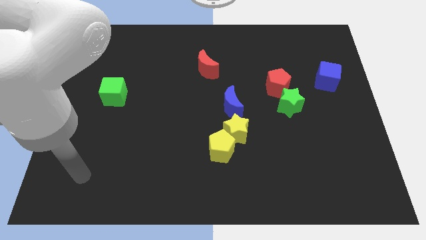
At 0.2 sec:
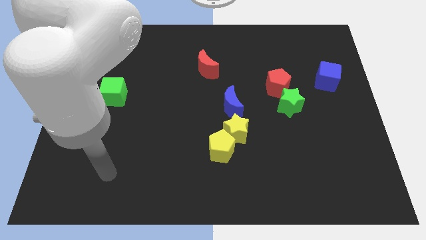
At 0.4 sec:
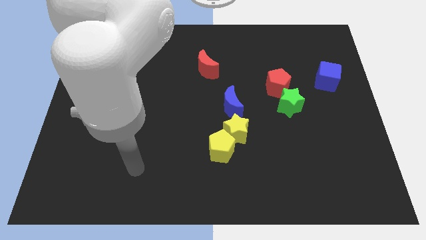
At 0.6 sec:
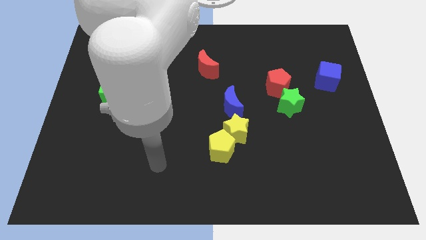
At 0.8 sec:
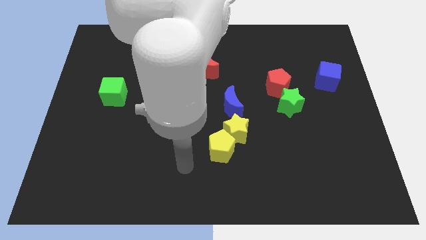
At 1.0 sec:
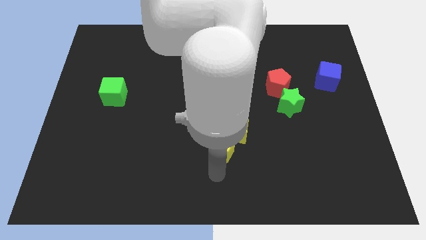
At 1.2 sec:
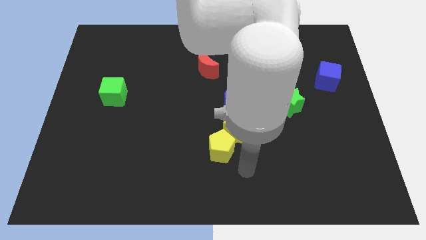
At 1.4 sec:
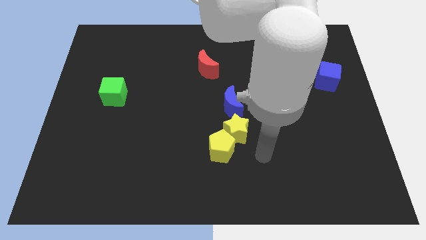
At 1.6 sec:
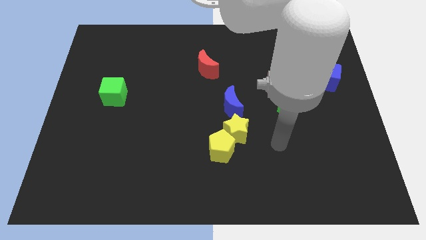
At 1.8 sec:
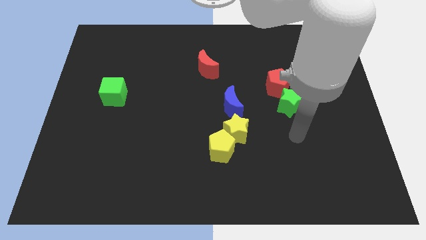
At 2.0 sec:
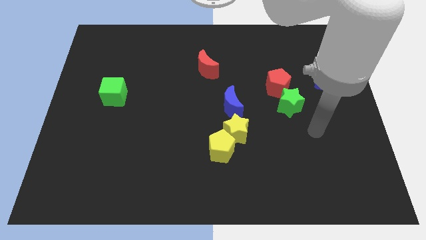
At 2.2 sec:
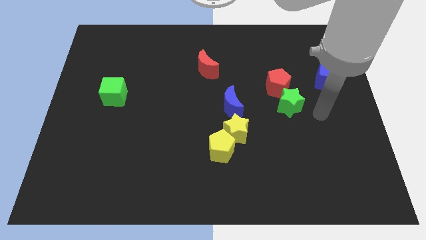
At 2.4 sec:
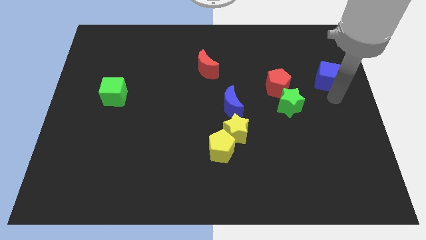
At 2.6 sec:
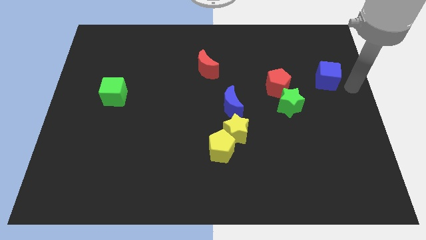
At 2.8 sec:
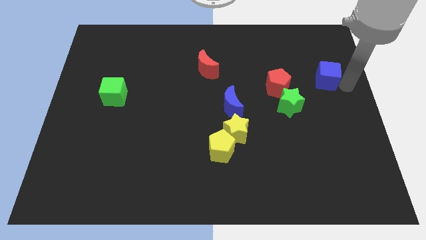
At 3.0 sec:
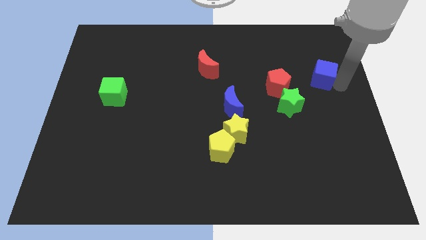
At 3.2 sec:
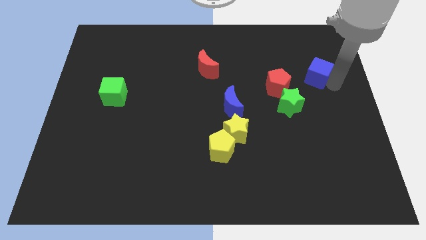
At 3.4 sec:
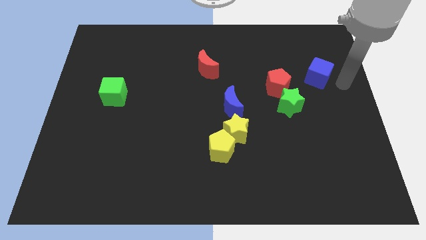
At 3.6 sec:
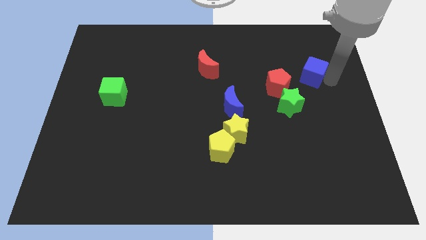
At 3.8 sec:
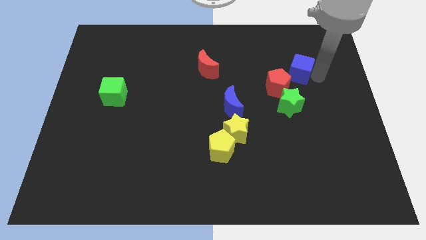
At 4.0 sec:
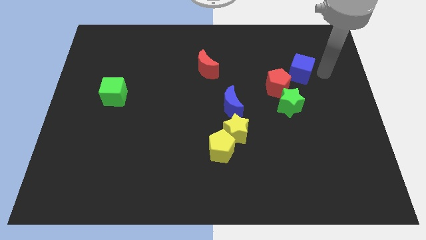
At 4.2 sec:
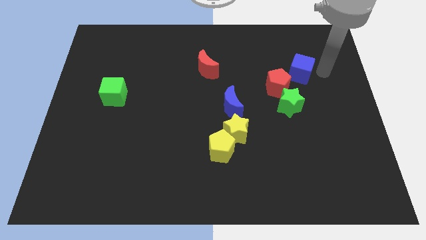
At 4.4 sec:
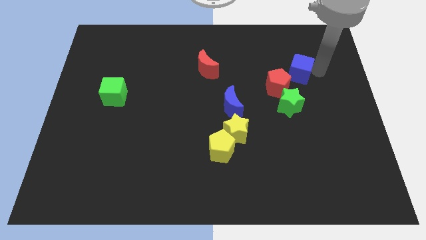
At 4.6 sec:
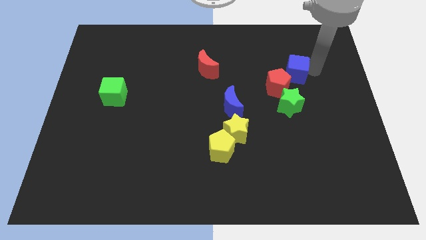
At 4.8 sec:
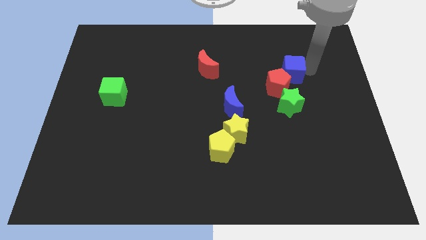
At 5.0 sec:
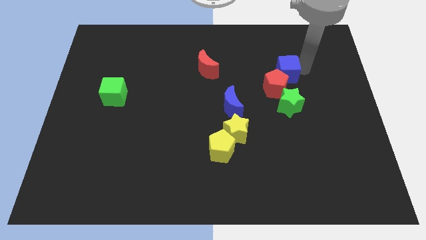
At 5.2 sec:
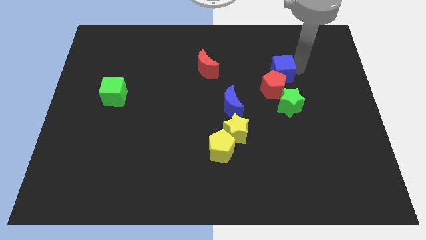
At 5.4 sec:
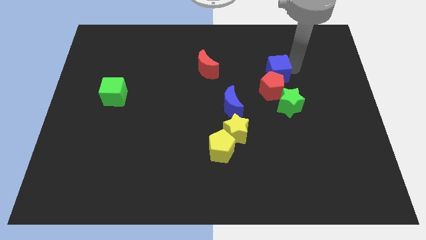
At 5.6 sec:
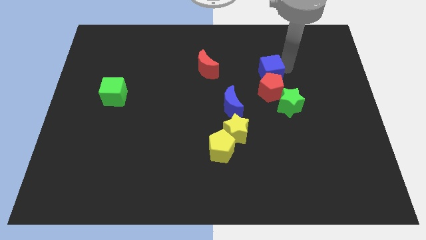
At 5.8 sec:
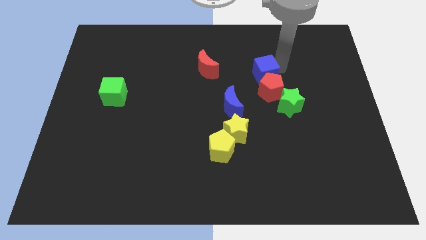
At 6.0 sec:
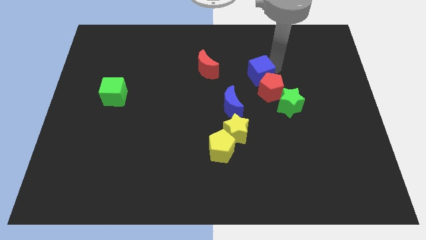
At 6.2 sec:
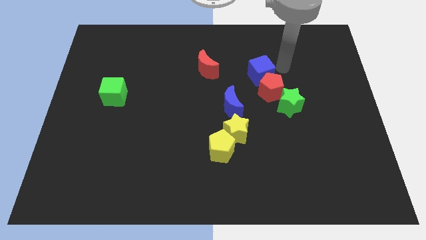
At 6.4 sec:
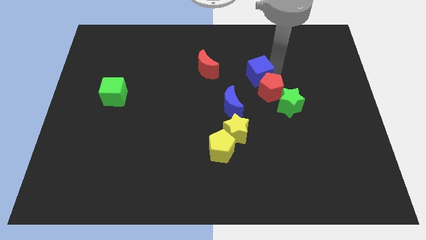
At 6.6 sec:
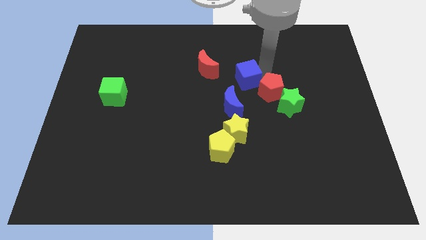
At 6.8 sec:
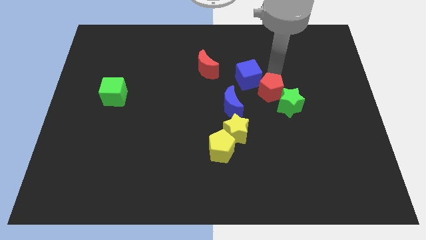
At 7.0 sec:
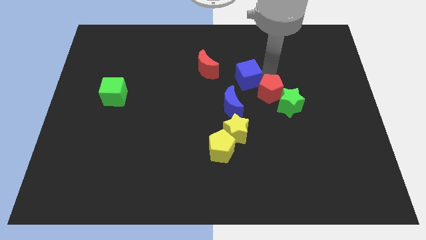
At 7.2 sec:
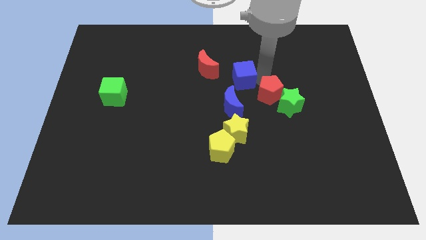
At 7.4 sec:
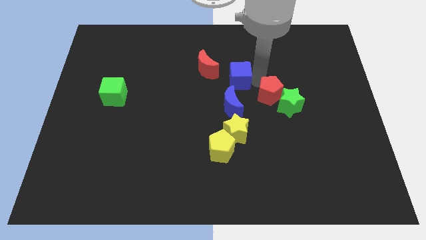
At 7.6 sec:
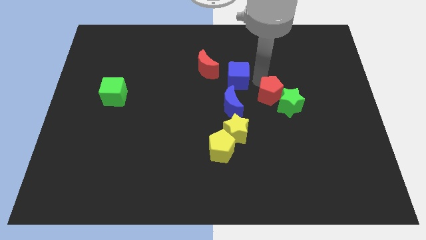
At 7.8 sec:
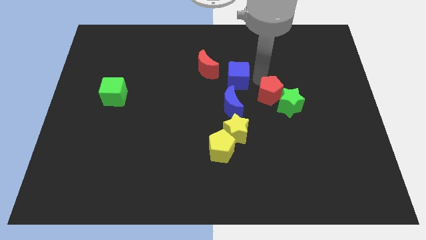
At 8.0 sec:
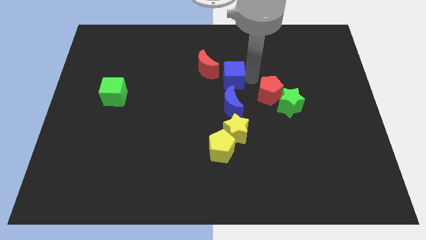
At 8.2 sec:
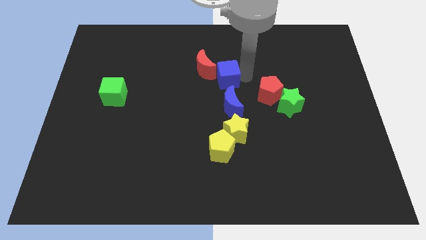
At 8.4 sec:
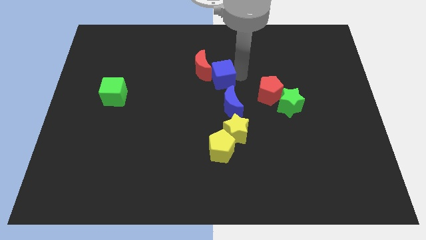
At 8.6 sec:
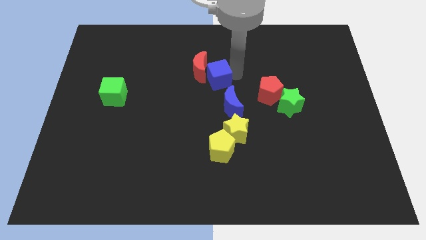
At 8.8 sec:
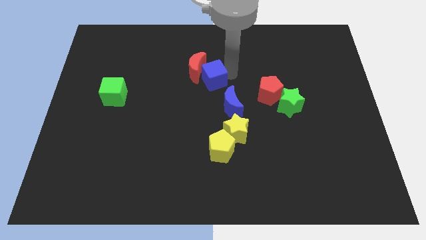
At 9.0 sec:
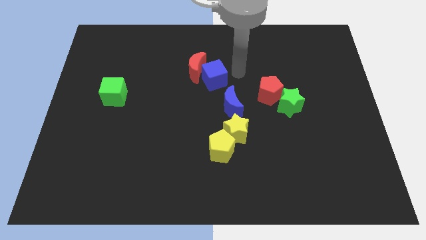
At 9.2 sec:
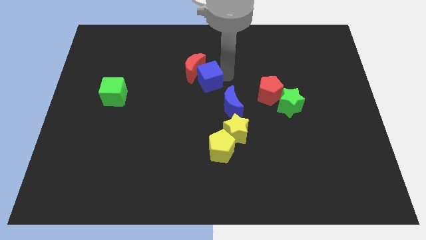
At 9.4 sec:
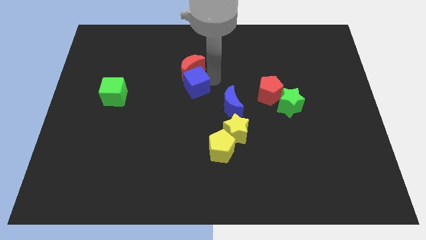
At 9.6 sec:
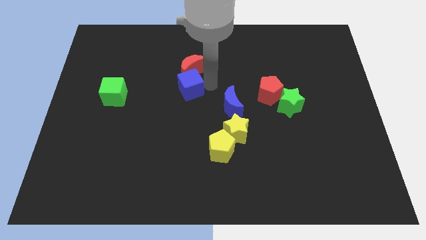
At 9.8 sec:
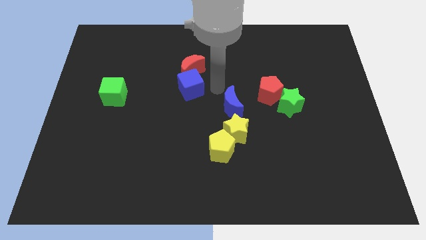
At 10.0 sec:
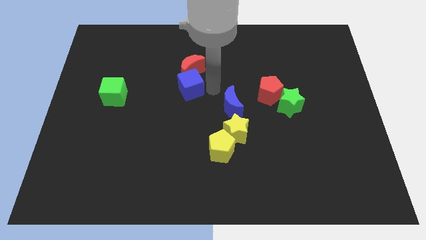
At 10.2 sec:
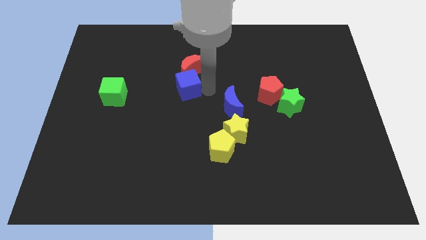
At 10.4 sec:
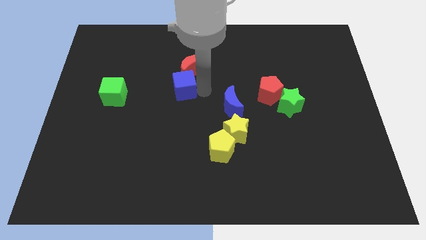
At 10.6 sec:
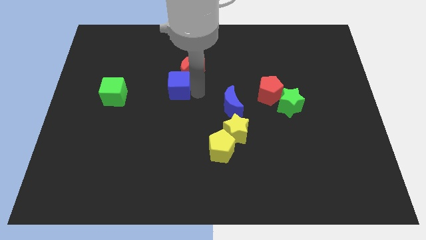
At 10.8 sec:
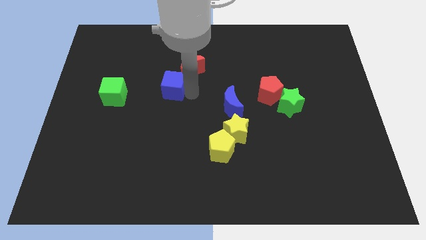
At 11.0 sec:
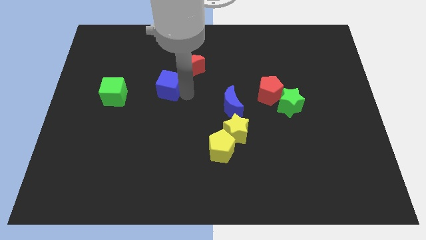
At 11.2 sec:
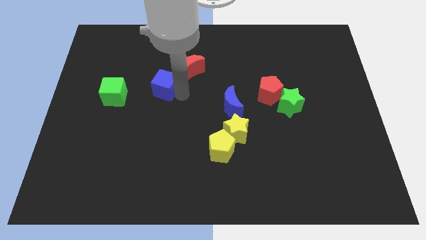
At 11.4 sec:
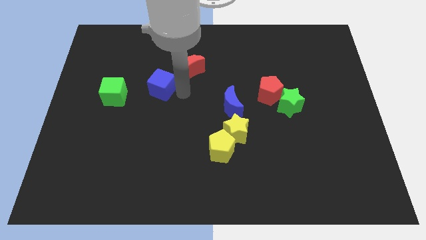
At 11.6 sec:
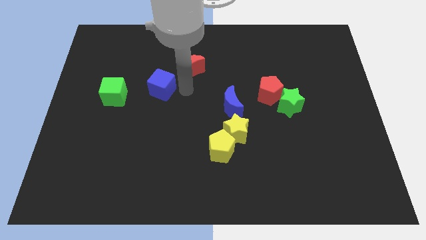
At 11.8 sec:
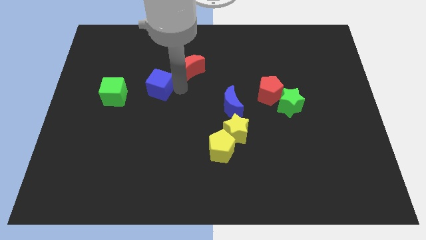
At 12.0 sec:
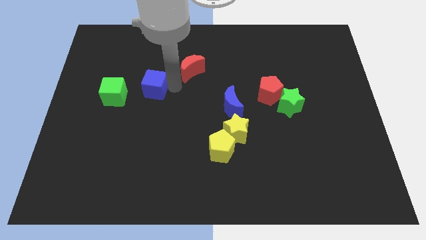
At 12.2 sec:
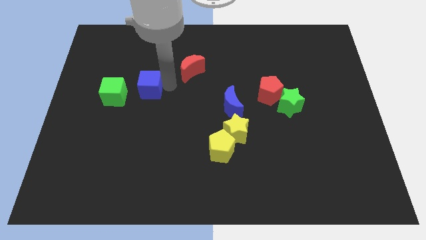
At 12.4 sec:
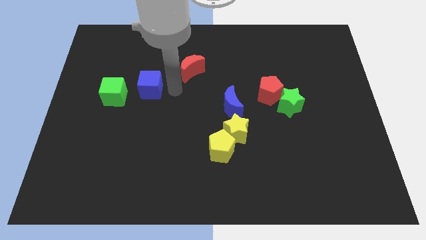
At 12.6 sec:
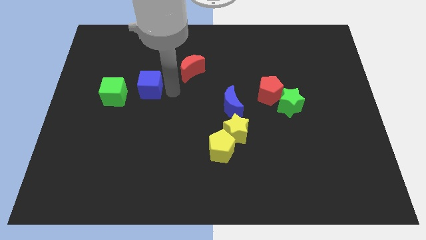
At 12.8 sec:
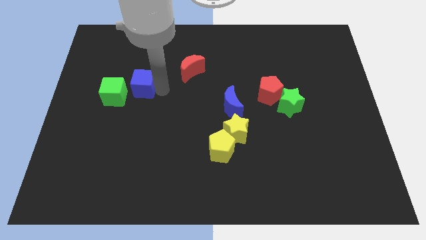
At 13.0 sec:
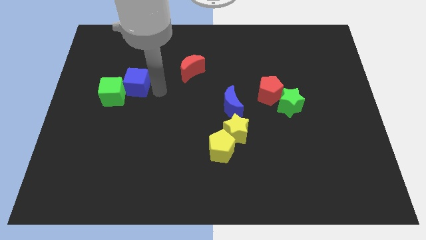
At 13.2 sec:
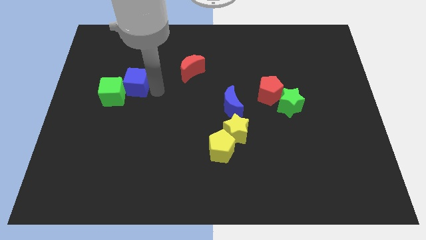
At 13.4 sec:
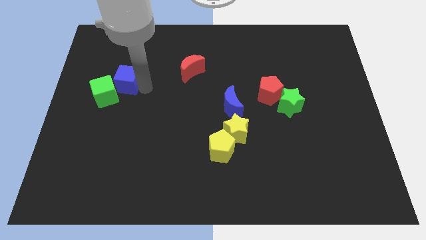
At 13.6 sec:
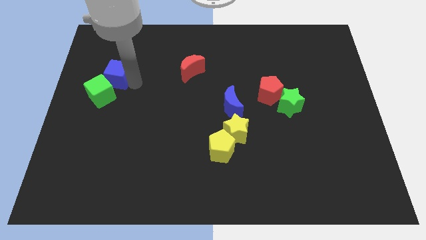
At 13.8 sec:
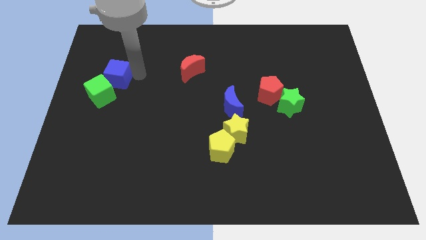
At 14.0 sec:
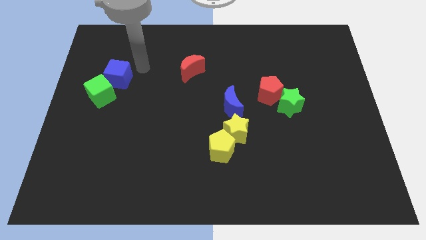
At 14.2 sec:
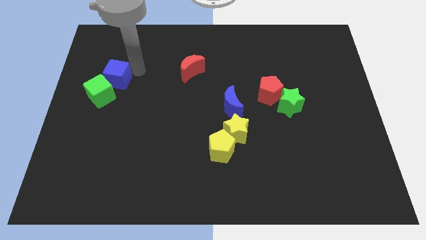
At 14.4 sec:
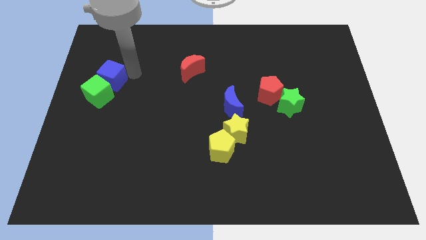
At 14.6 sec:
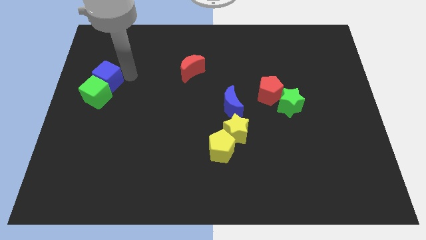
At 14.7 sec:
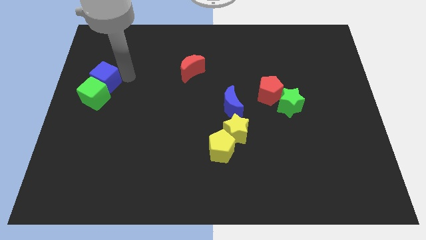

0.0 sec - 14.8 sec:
move the blue cube to the left side
